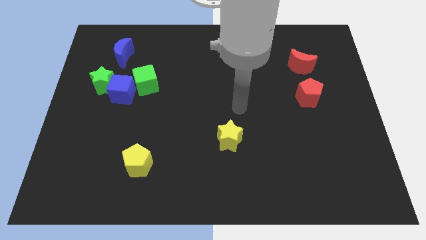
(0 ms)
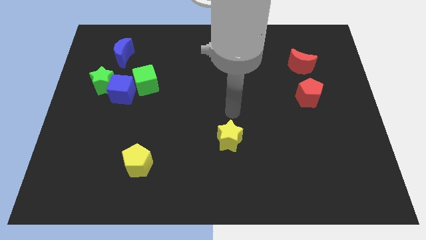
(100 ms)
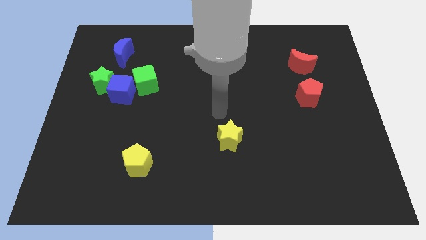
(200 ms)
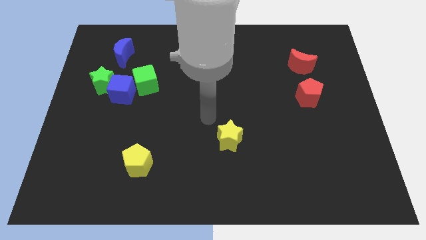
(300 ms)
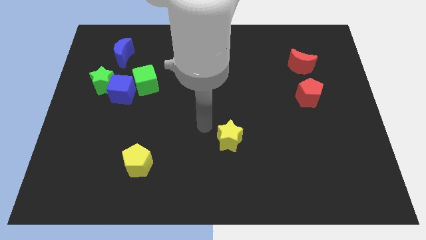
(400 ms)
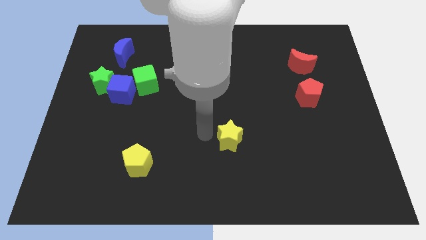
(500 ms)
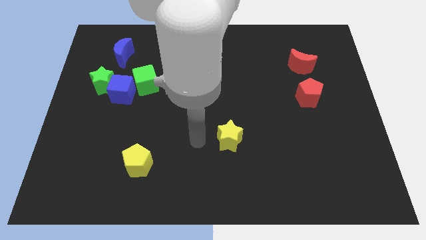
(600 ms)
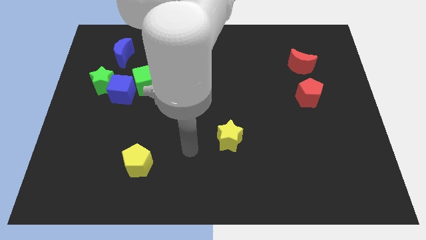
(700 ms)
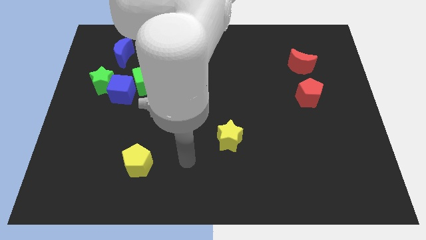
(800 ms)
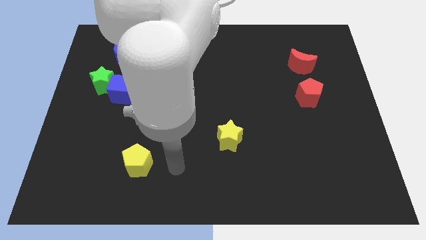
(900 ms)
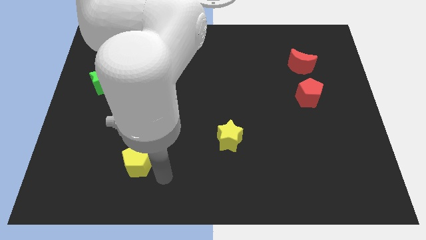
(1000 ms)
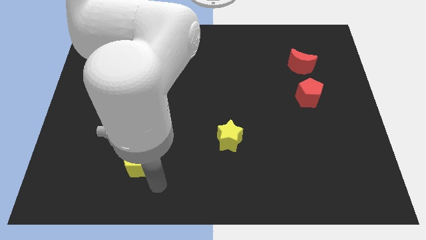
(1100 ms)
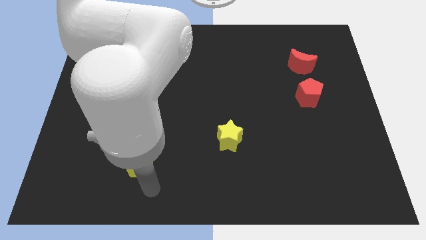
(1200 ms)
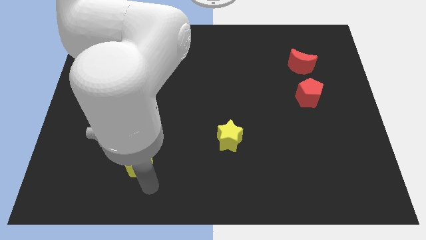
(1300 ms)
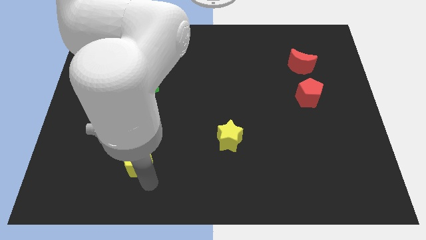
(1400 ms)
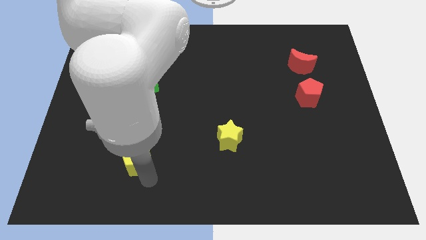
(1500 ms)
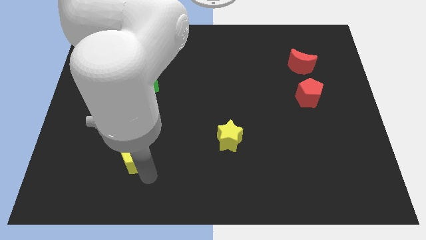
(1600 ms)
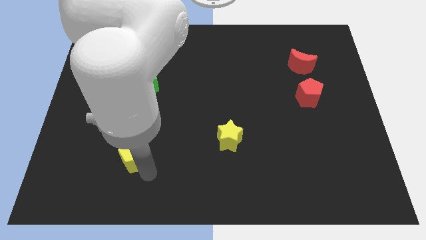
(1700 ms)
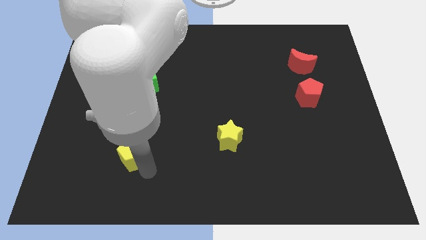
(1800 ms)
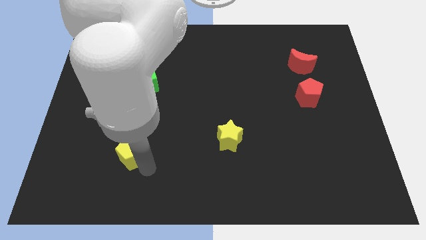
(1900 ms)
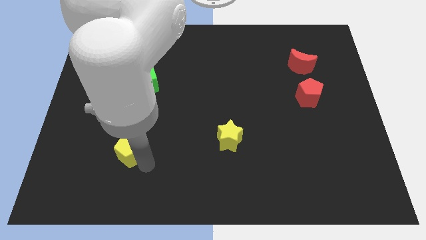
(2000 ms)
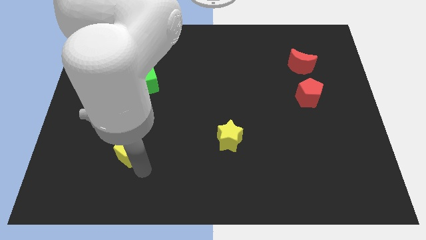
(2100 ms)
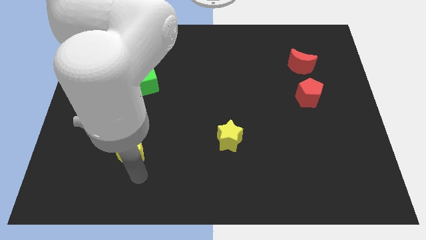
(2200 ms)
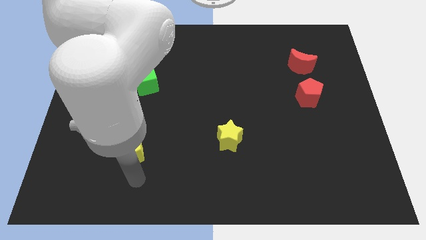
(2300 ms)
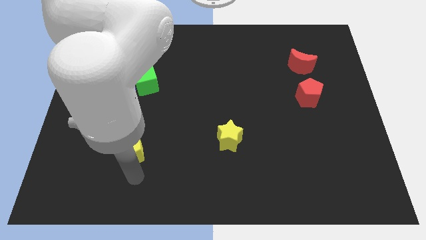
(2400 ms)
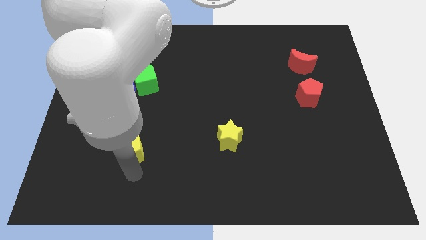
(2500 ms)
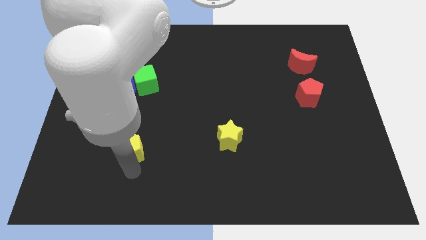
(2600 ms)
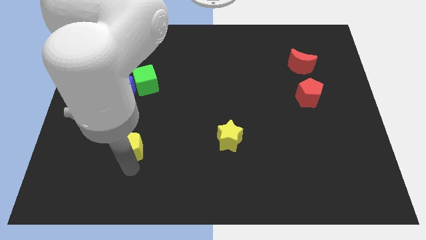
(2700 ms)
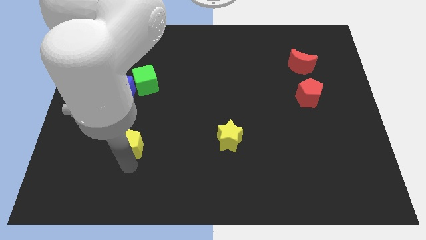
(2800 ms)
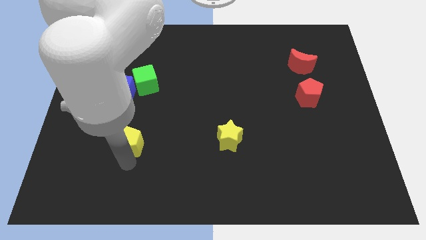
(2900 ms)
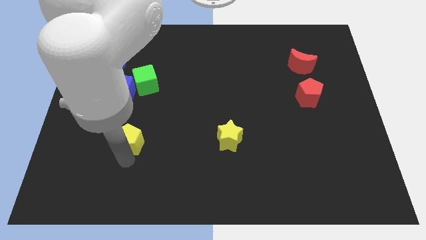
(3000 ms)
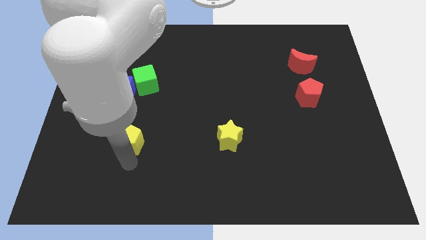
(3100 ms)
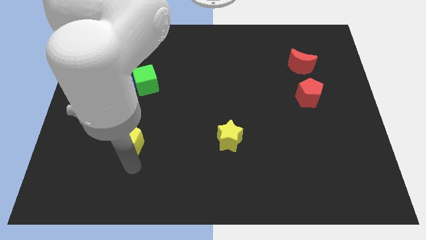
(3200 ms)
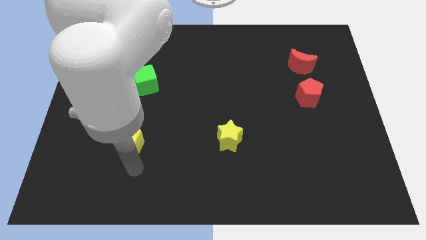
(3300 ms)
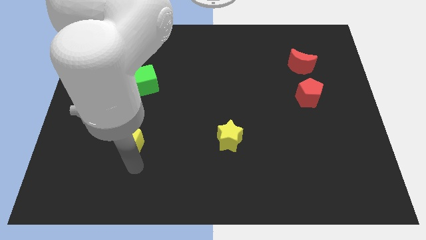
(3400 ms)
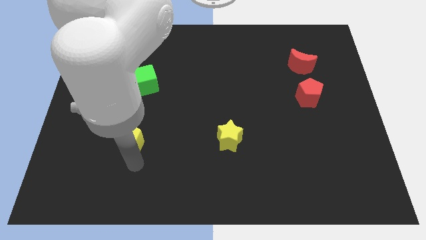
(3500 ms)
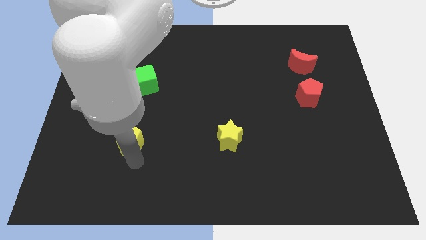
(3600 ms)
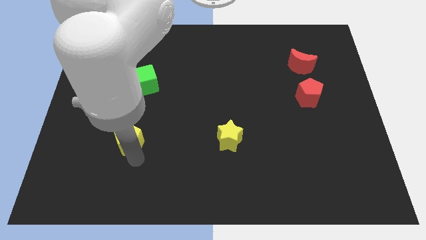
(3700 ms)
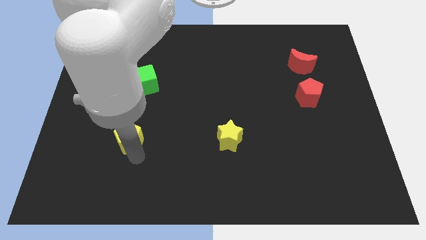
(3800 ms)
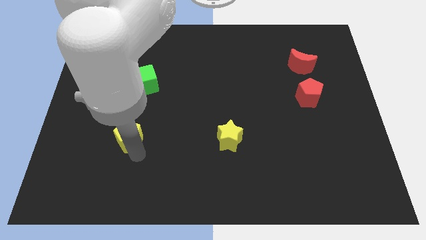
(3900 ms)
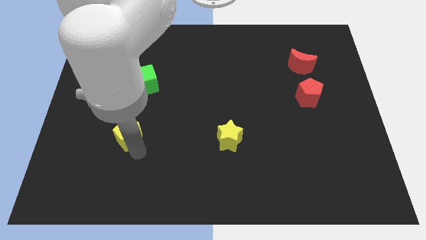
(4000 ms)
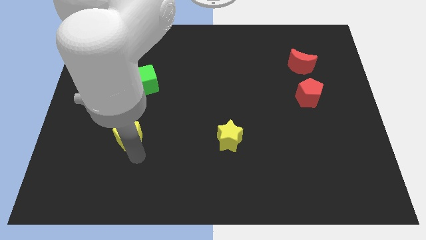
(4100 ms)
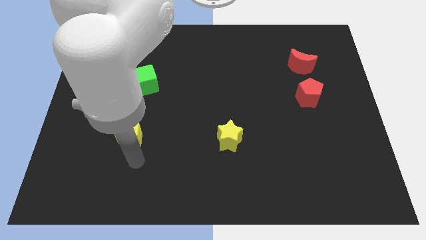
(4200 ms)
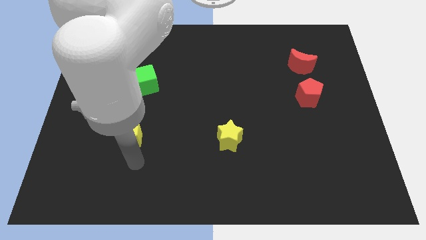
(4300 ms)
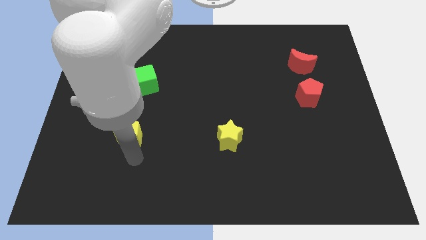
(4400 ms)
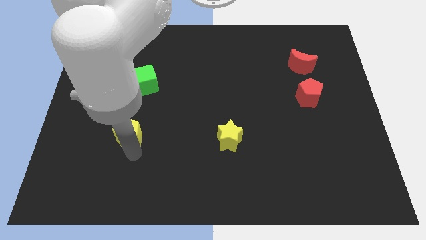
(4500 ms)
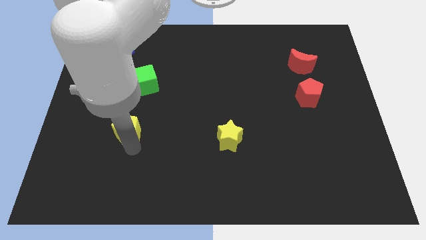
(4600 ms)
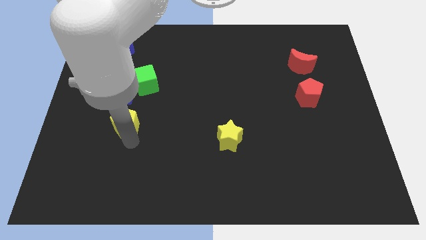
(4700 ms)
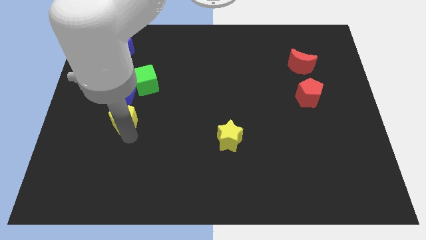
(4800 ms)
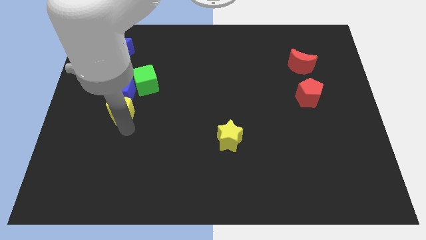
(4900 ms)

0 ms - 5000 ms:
slide the yellow pentagon to the blue cube

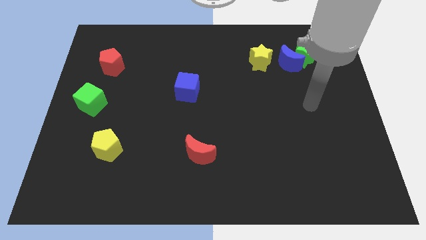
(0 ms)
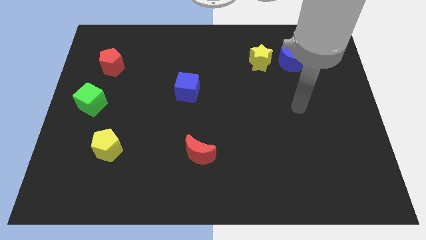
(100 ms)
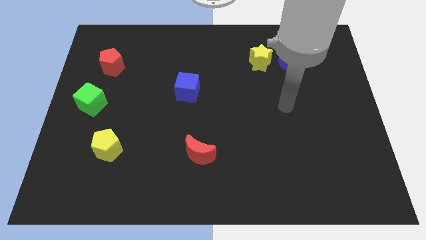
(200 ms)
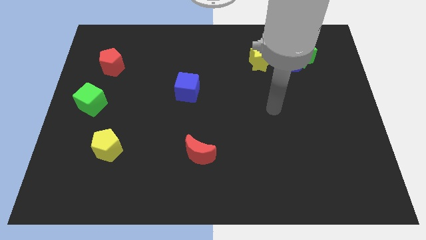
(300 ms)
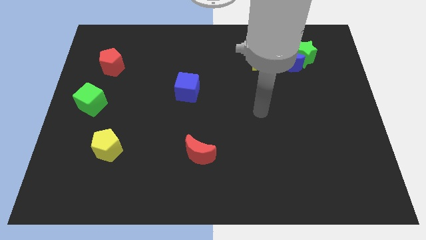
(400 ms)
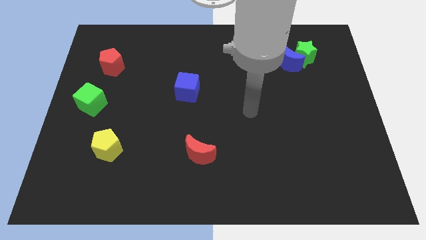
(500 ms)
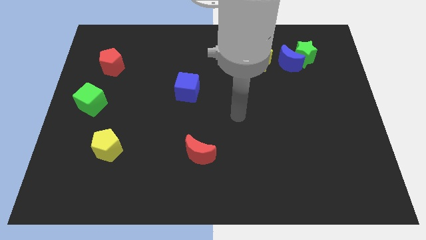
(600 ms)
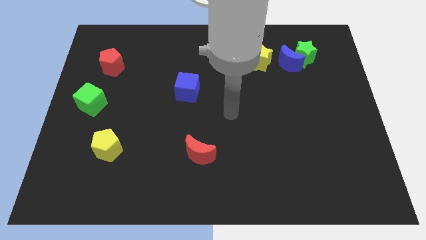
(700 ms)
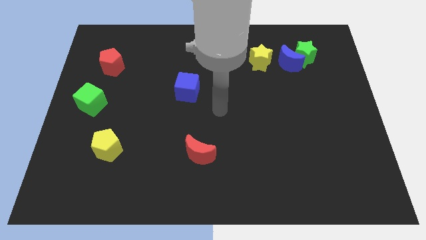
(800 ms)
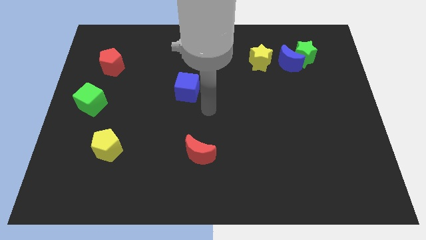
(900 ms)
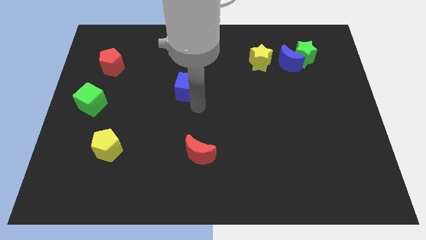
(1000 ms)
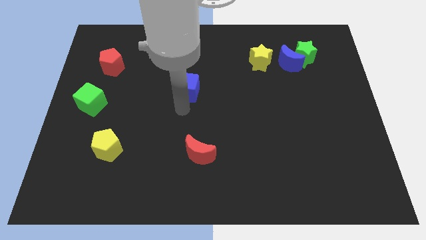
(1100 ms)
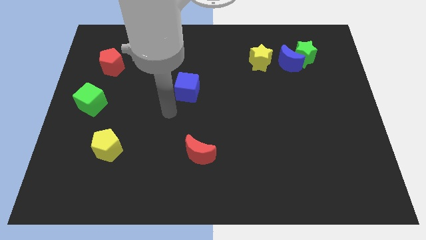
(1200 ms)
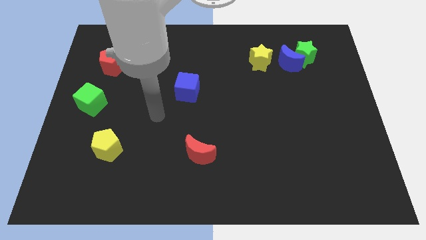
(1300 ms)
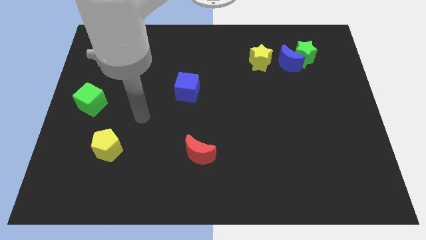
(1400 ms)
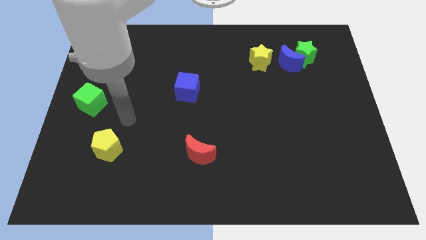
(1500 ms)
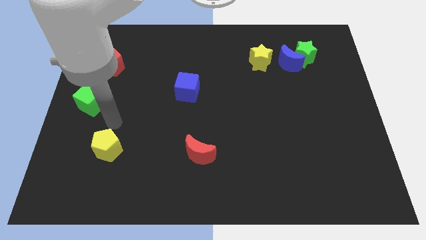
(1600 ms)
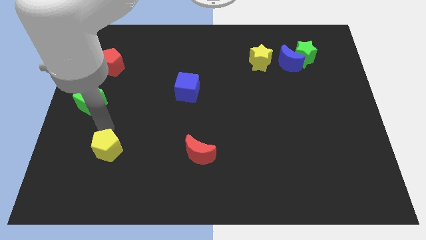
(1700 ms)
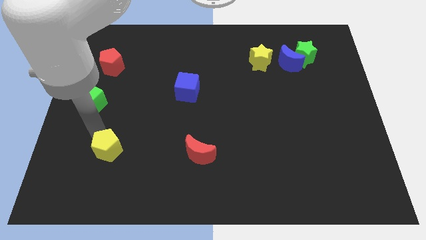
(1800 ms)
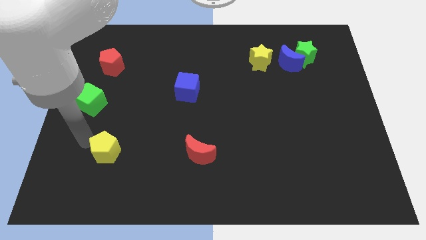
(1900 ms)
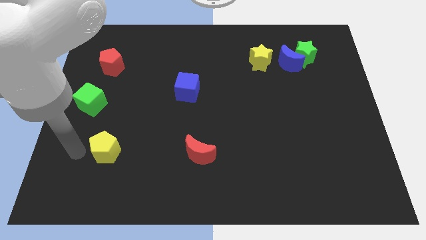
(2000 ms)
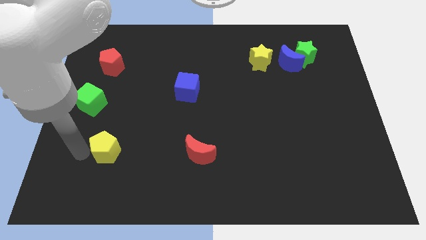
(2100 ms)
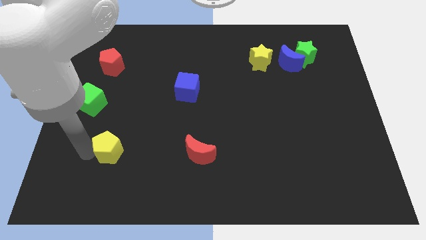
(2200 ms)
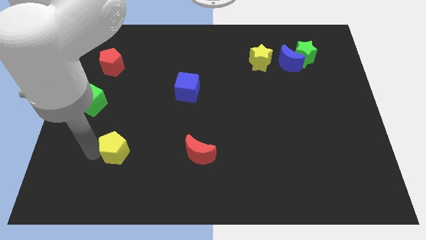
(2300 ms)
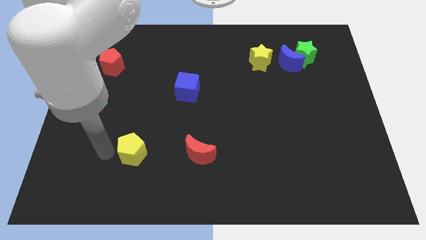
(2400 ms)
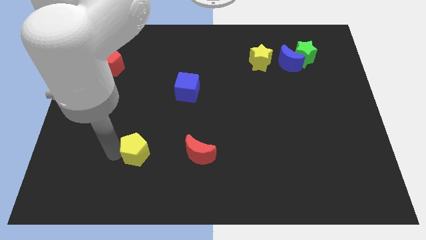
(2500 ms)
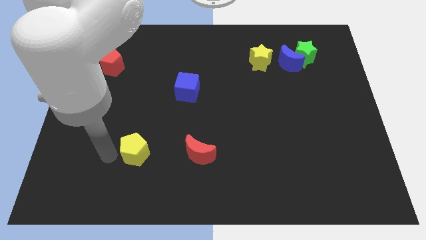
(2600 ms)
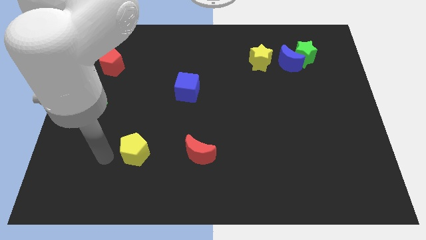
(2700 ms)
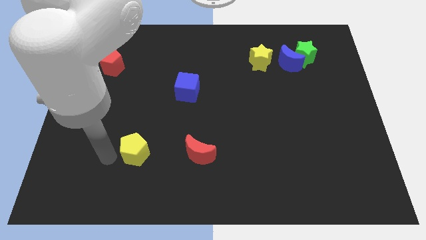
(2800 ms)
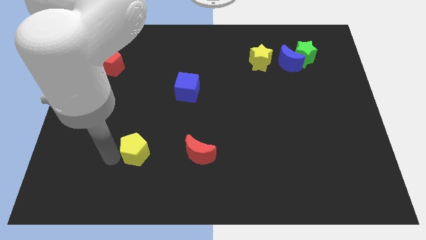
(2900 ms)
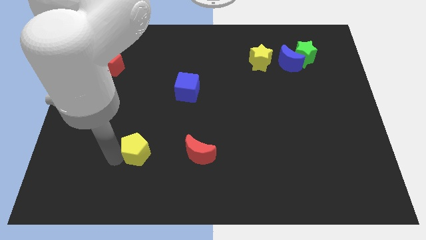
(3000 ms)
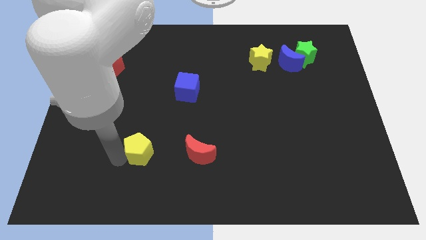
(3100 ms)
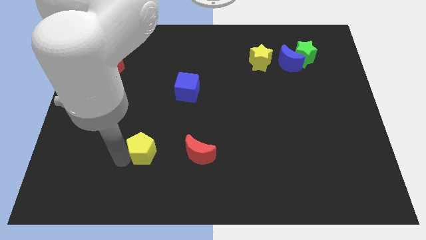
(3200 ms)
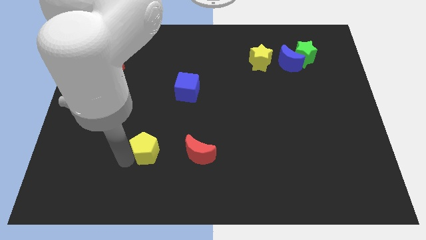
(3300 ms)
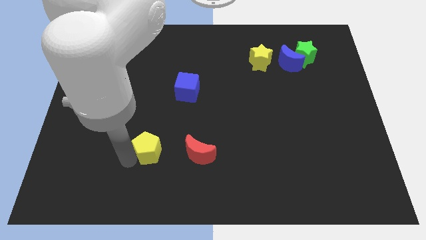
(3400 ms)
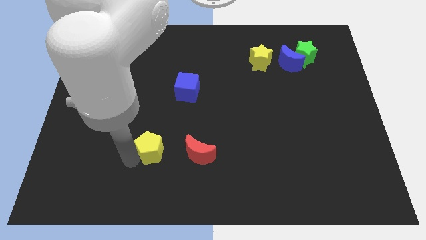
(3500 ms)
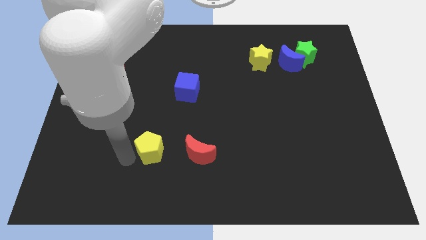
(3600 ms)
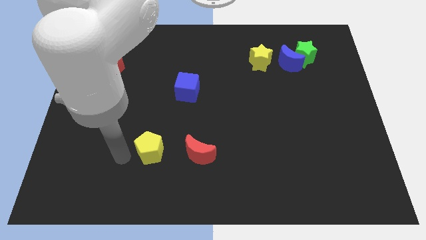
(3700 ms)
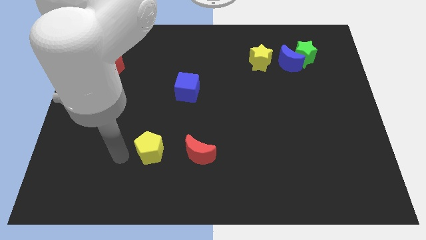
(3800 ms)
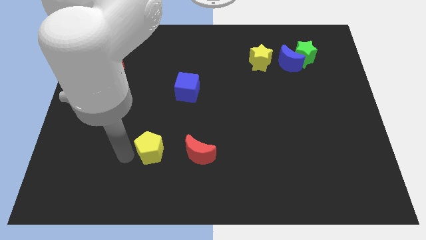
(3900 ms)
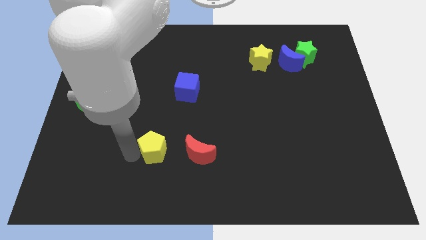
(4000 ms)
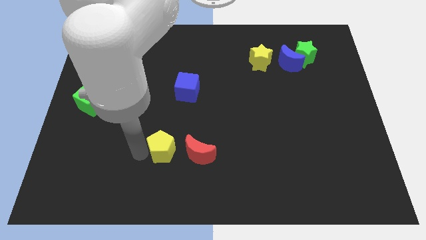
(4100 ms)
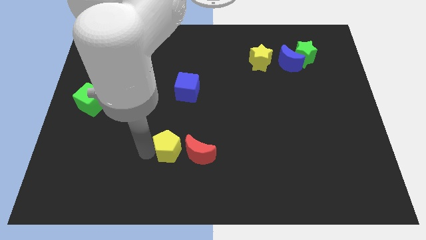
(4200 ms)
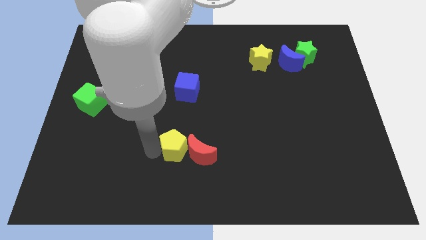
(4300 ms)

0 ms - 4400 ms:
push the yellow pentagon towards the red moon
